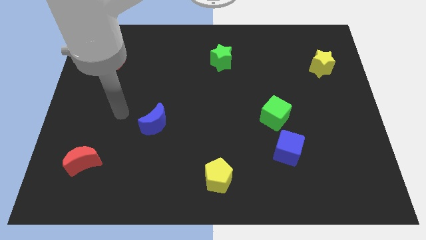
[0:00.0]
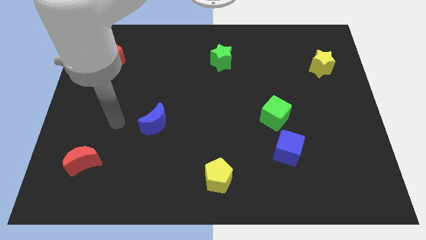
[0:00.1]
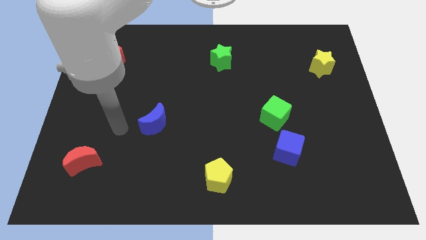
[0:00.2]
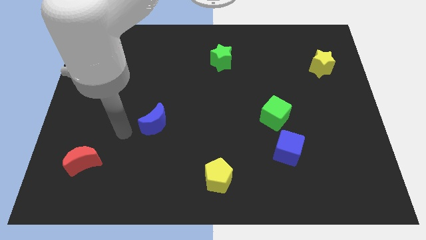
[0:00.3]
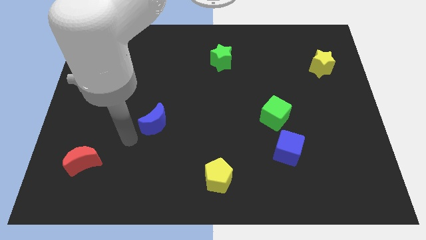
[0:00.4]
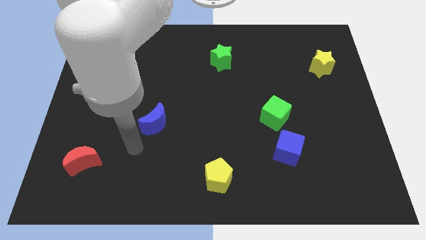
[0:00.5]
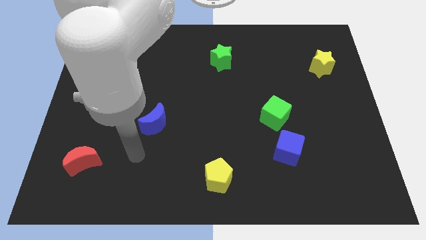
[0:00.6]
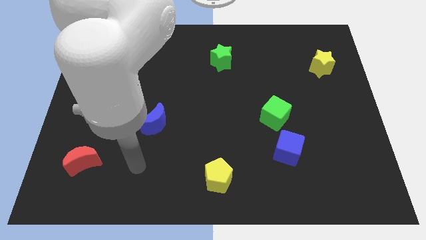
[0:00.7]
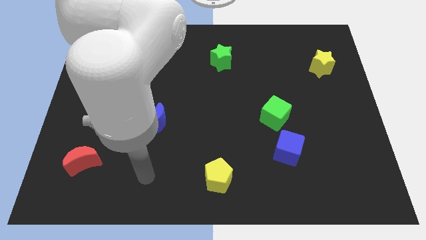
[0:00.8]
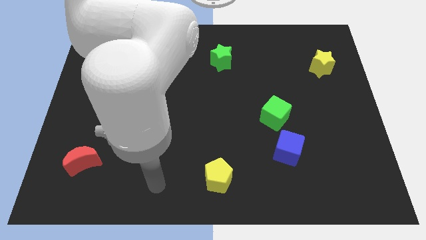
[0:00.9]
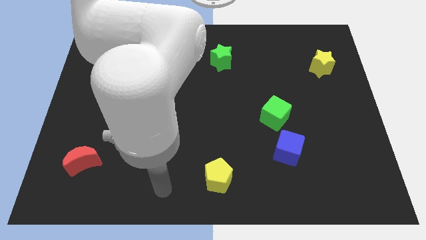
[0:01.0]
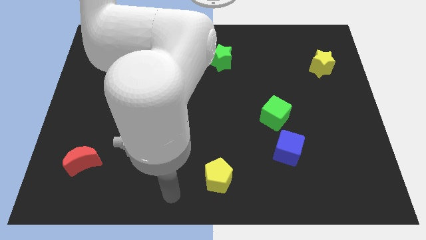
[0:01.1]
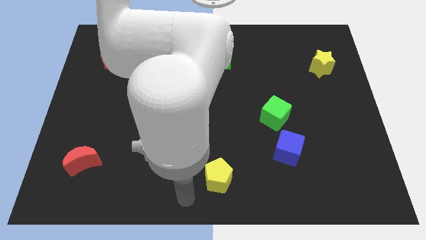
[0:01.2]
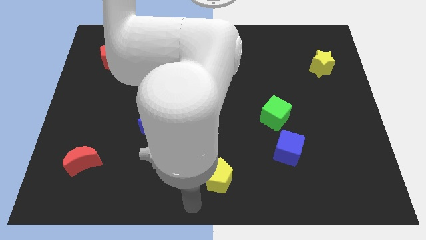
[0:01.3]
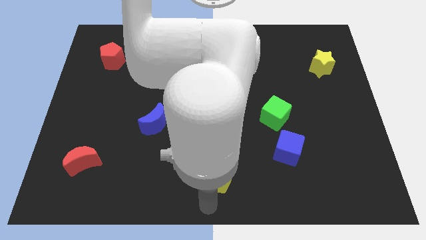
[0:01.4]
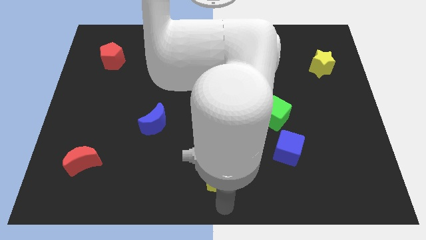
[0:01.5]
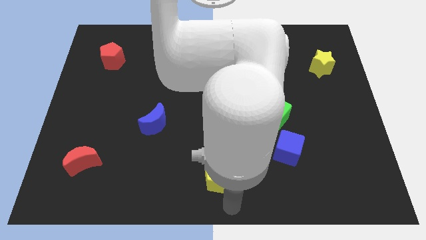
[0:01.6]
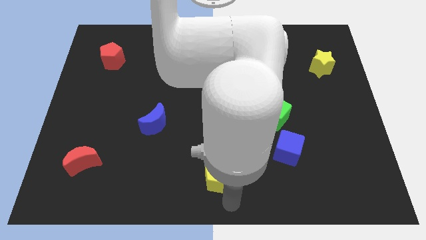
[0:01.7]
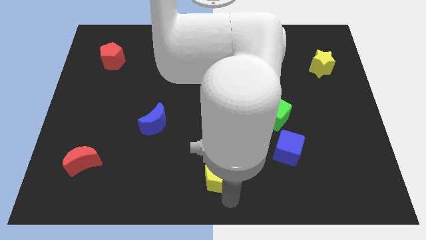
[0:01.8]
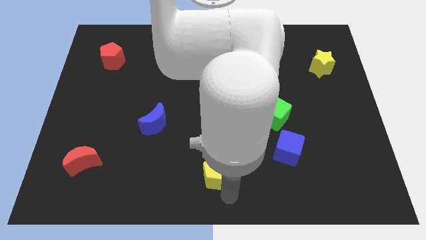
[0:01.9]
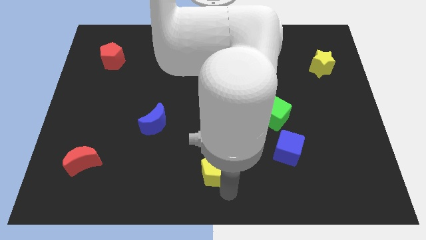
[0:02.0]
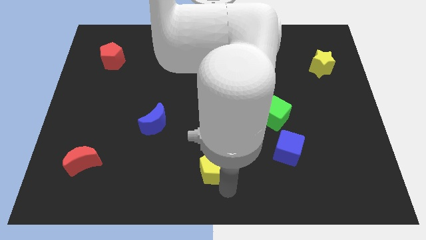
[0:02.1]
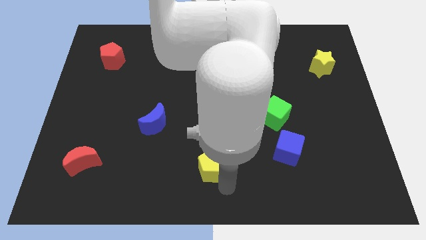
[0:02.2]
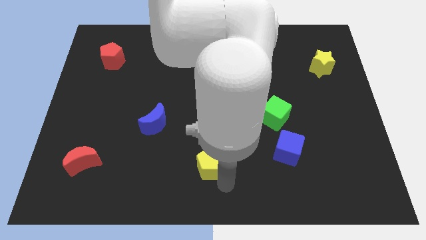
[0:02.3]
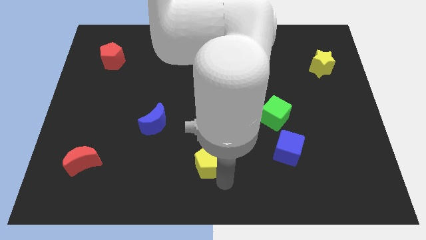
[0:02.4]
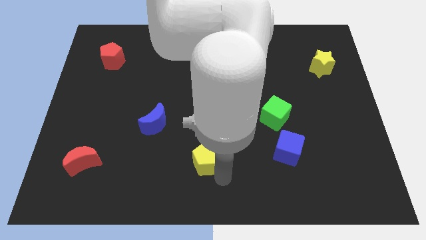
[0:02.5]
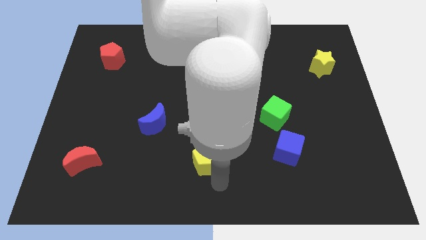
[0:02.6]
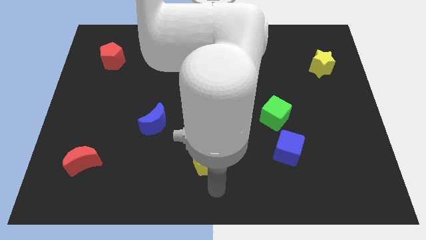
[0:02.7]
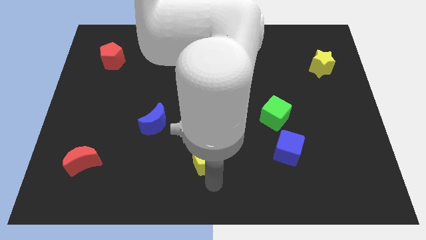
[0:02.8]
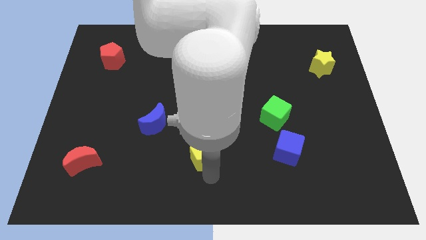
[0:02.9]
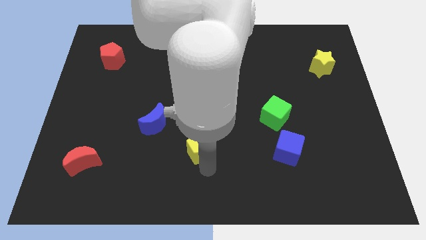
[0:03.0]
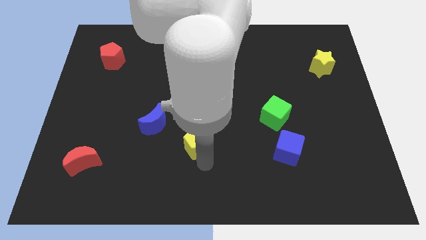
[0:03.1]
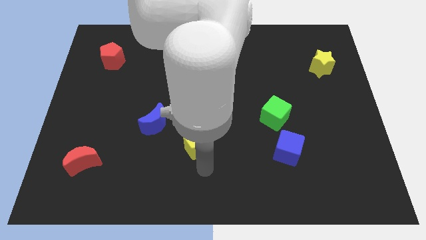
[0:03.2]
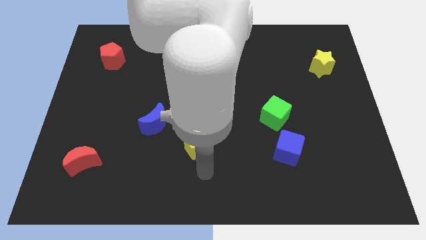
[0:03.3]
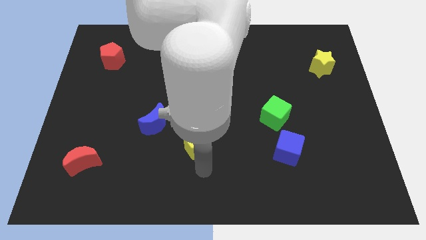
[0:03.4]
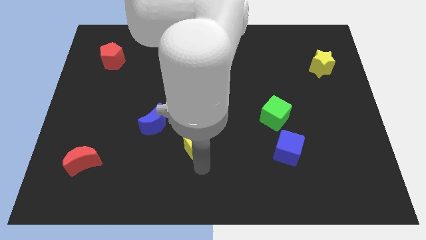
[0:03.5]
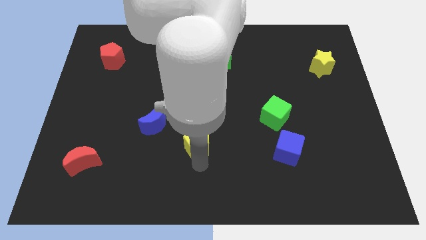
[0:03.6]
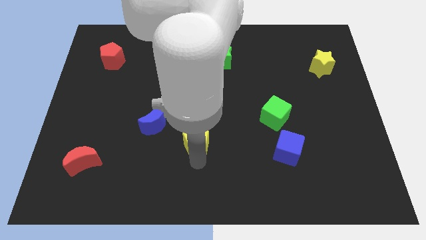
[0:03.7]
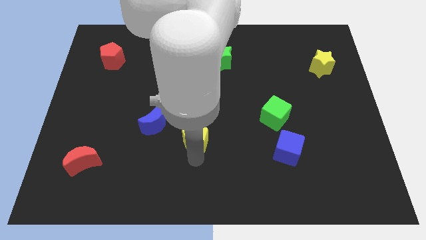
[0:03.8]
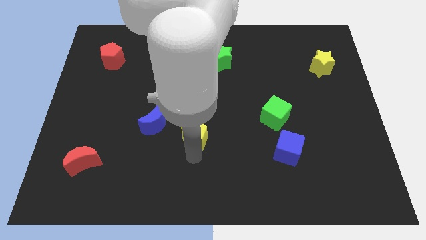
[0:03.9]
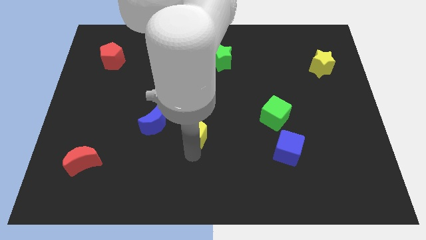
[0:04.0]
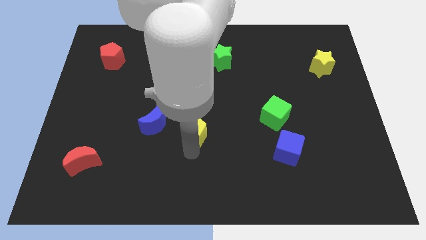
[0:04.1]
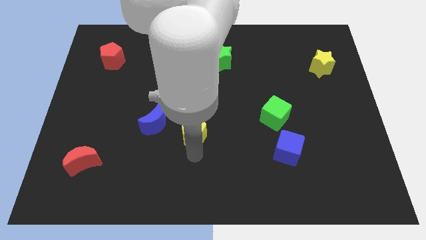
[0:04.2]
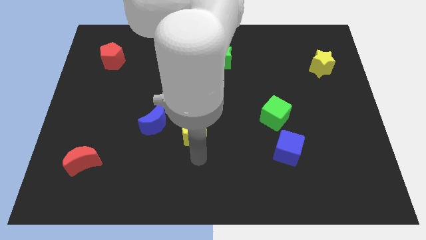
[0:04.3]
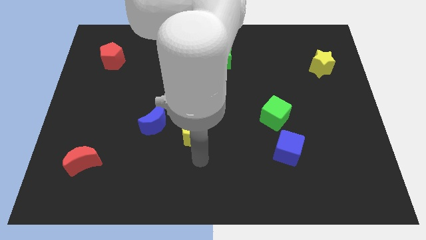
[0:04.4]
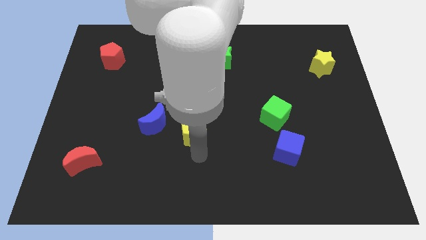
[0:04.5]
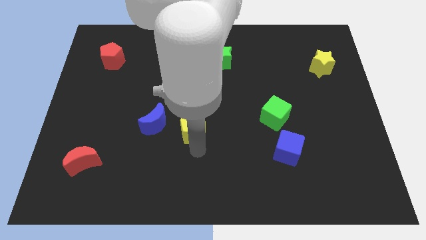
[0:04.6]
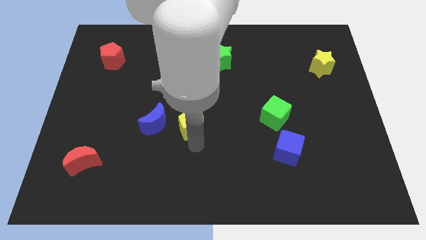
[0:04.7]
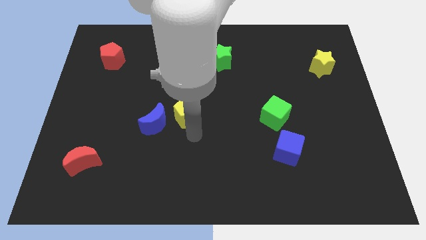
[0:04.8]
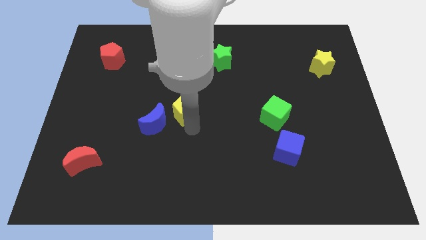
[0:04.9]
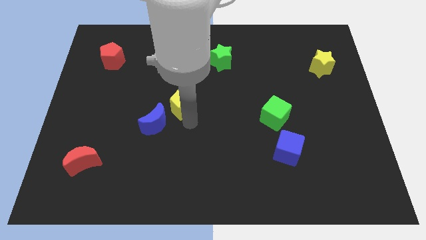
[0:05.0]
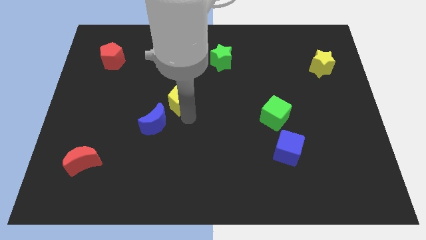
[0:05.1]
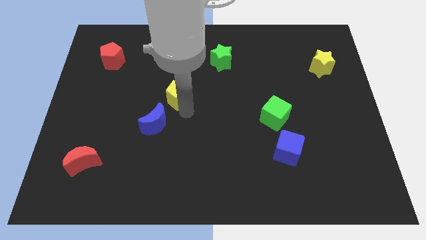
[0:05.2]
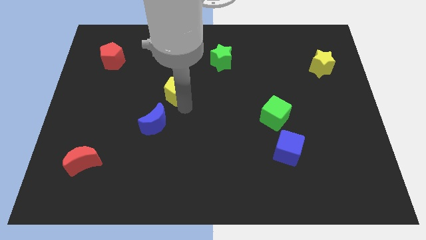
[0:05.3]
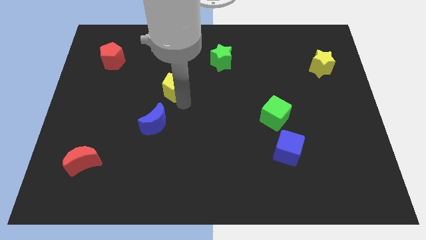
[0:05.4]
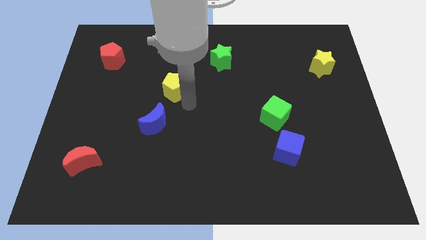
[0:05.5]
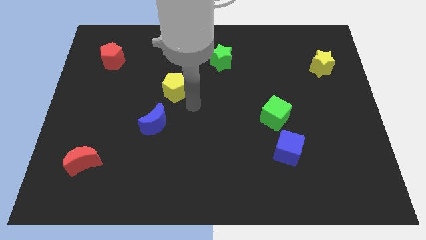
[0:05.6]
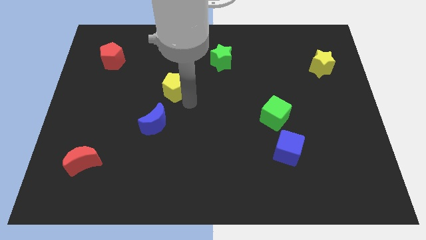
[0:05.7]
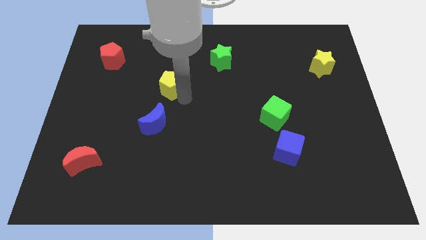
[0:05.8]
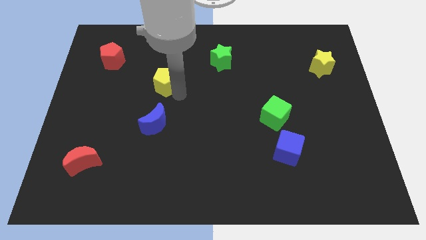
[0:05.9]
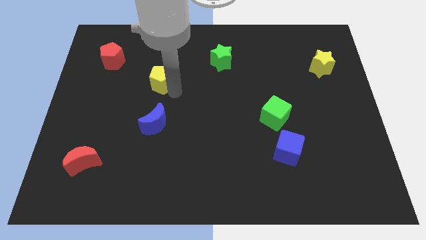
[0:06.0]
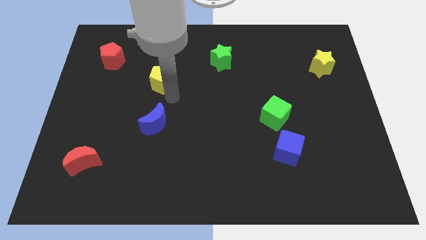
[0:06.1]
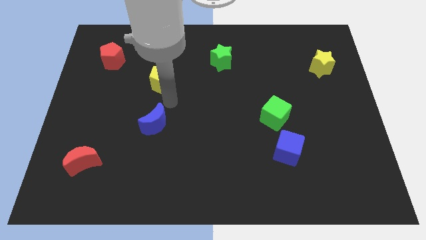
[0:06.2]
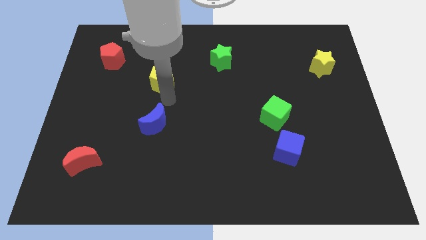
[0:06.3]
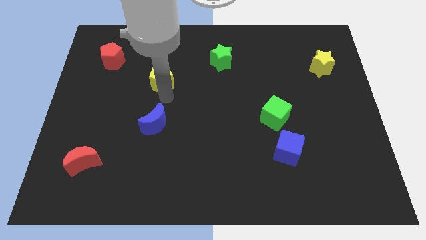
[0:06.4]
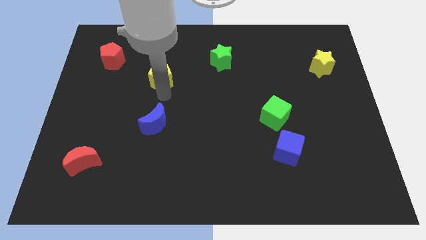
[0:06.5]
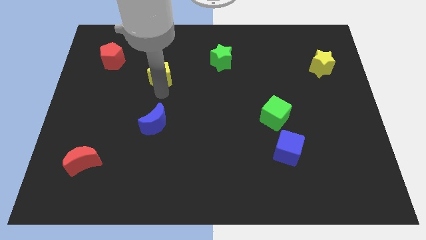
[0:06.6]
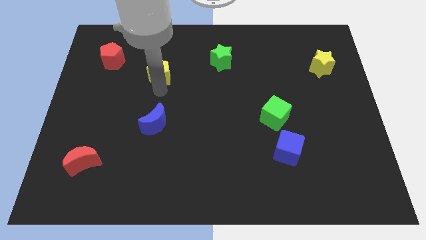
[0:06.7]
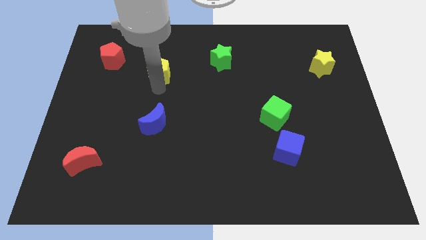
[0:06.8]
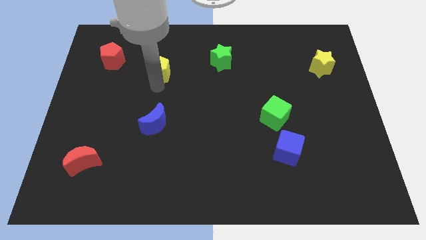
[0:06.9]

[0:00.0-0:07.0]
push the yellow pentagon just right of the red pentagon
